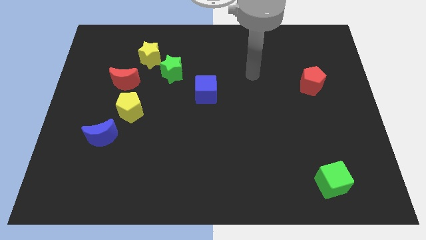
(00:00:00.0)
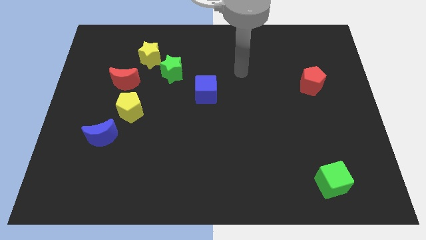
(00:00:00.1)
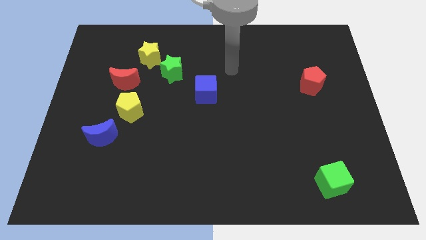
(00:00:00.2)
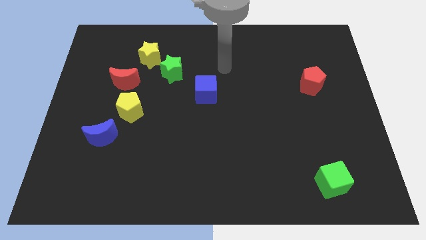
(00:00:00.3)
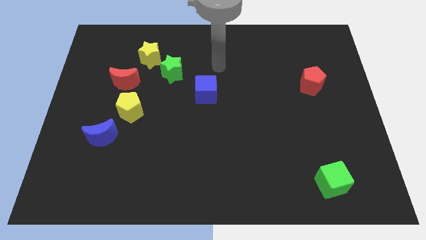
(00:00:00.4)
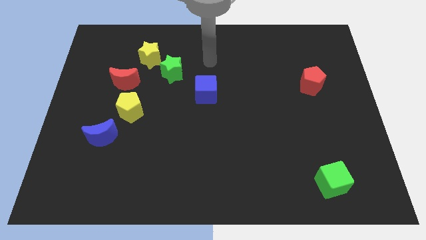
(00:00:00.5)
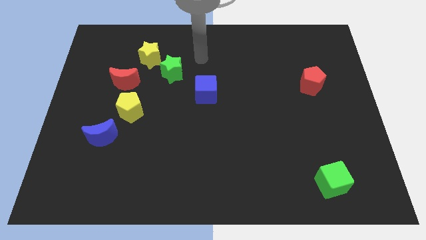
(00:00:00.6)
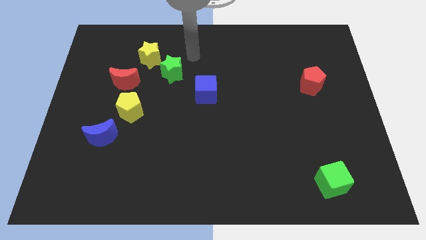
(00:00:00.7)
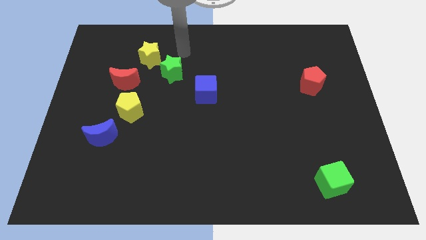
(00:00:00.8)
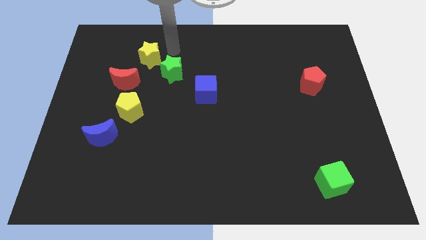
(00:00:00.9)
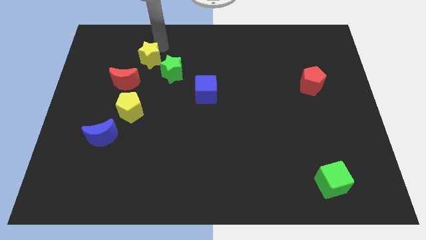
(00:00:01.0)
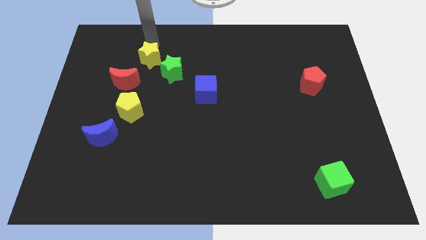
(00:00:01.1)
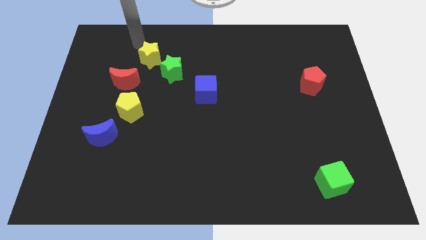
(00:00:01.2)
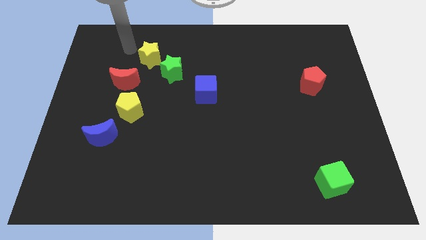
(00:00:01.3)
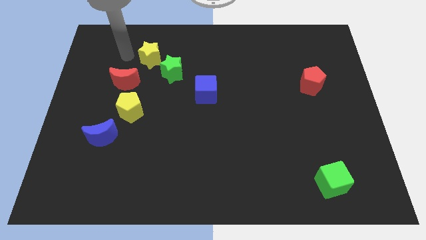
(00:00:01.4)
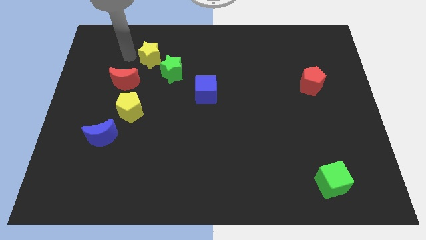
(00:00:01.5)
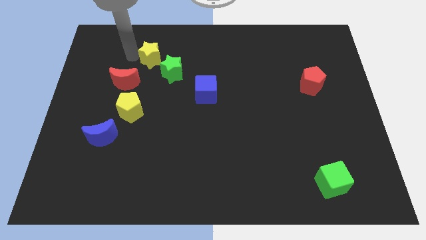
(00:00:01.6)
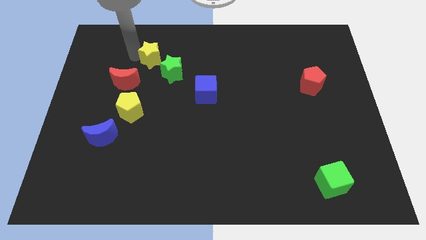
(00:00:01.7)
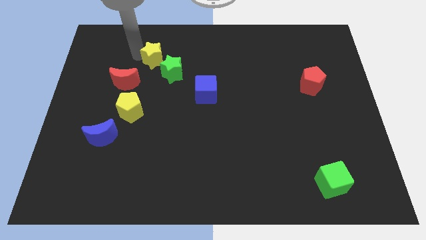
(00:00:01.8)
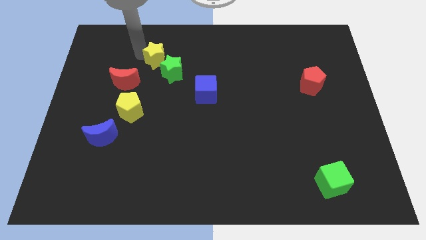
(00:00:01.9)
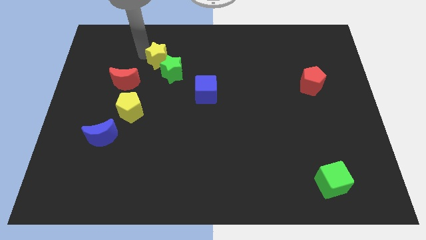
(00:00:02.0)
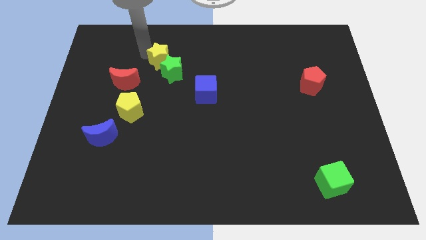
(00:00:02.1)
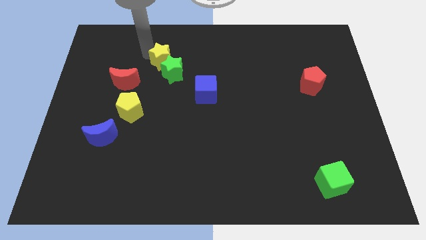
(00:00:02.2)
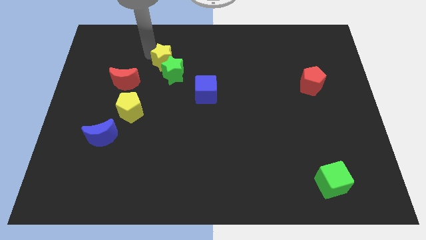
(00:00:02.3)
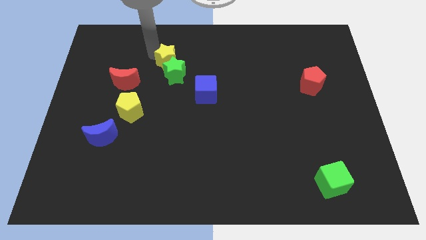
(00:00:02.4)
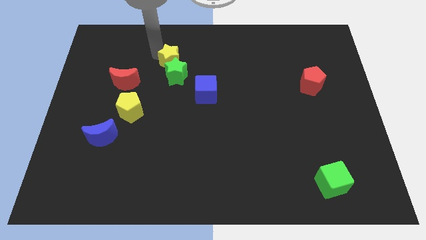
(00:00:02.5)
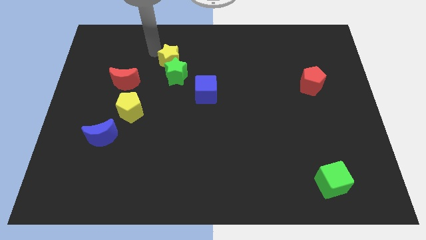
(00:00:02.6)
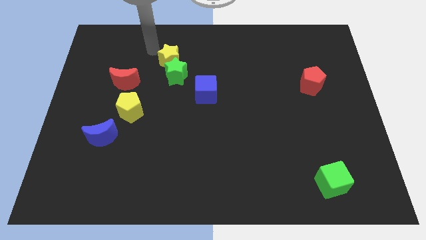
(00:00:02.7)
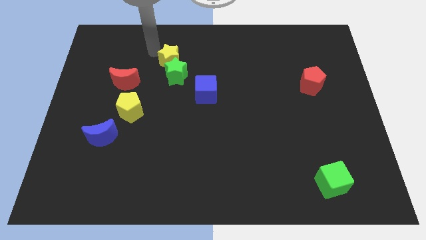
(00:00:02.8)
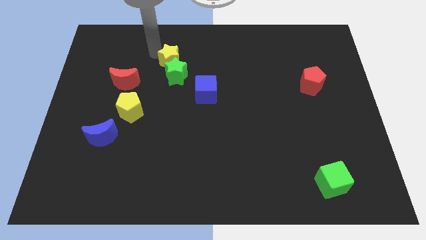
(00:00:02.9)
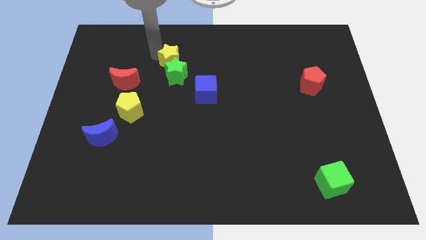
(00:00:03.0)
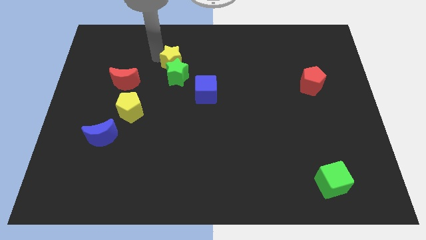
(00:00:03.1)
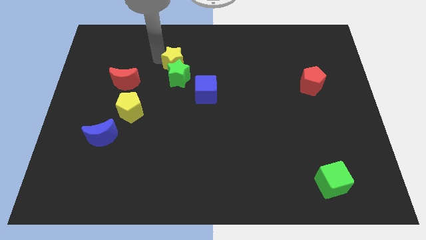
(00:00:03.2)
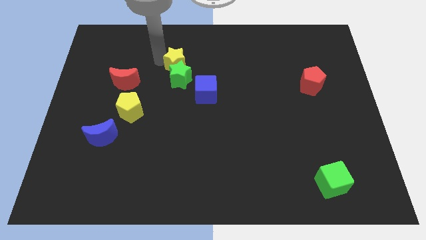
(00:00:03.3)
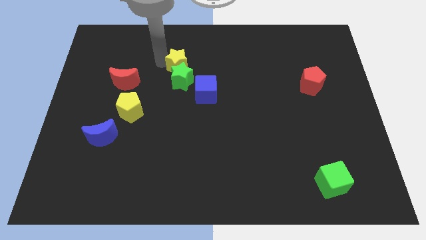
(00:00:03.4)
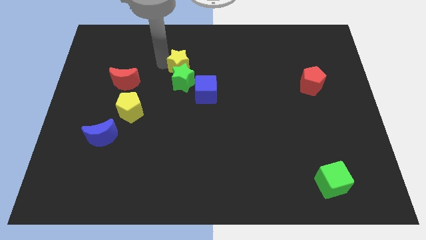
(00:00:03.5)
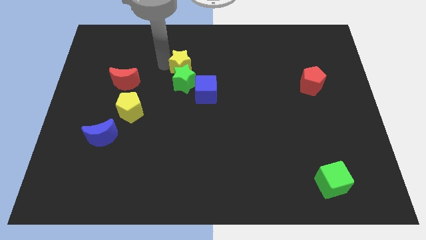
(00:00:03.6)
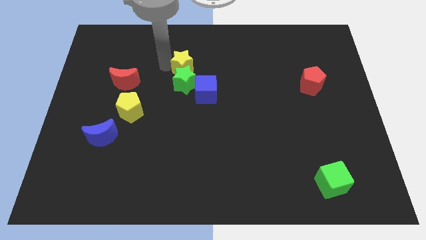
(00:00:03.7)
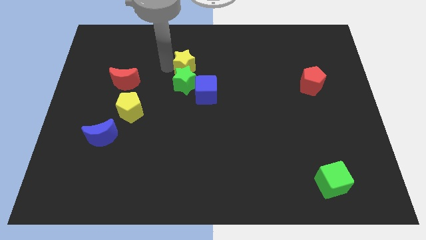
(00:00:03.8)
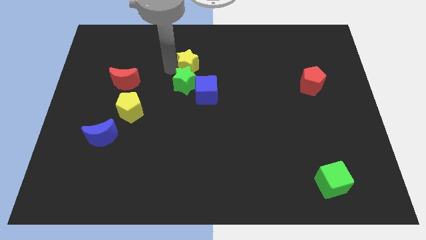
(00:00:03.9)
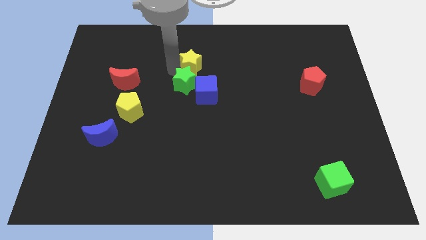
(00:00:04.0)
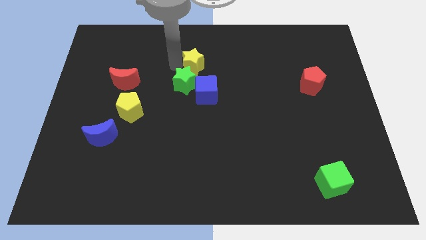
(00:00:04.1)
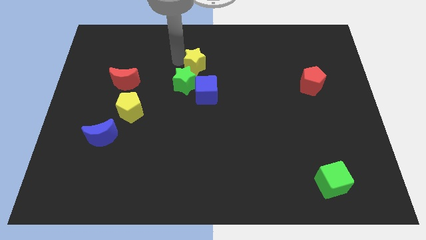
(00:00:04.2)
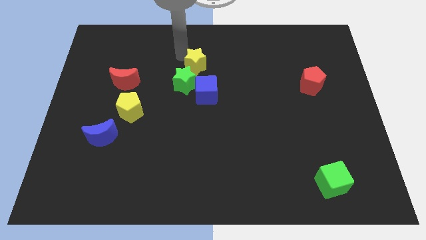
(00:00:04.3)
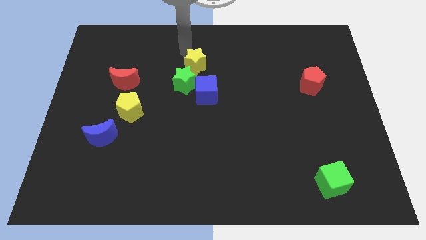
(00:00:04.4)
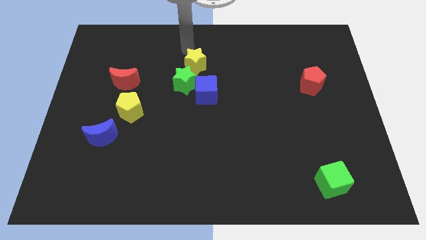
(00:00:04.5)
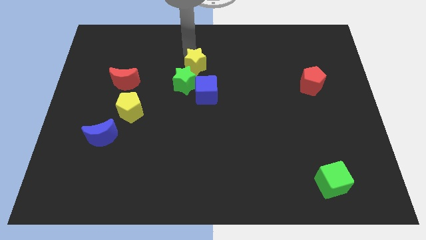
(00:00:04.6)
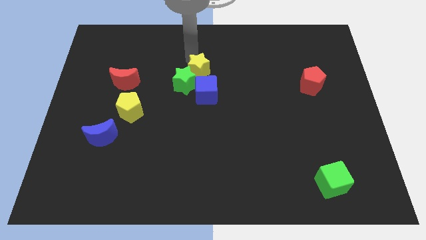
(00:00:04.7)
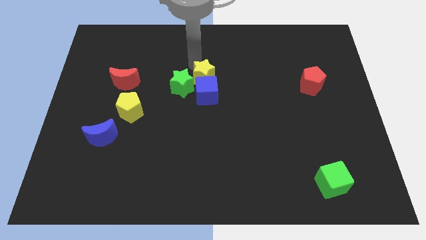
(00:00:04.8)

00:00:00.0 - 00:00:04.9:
push the yellow star next to the blue cube

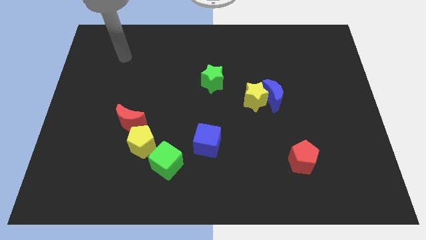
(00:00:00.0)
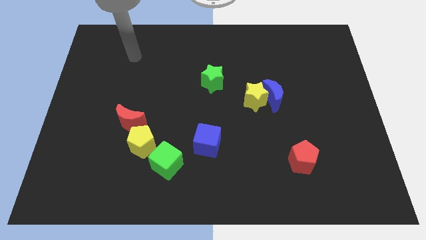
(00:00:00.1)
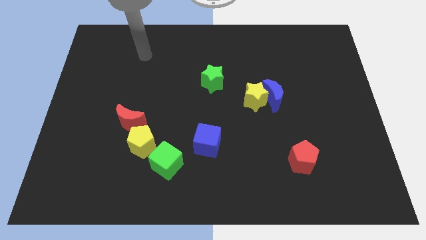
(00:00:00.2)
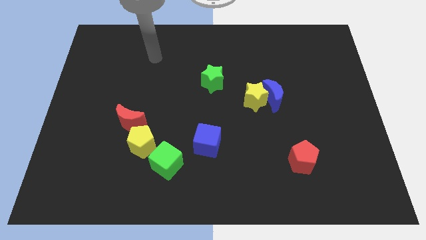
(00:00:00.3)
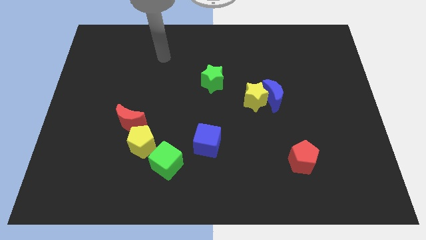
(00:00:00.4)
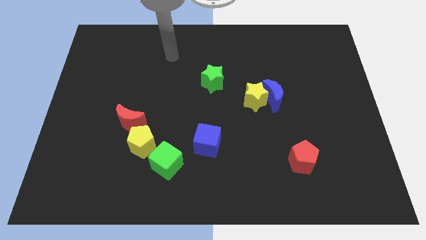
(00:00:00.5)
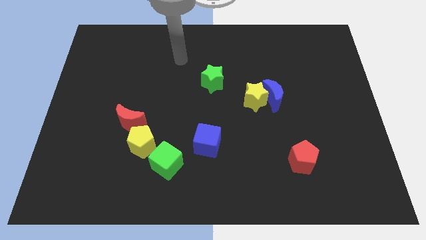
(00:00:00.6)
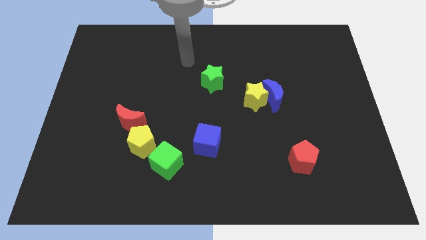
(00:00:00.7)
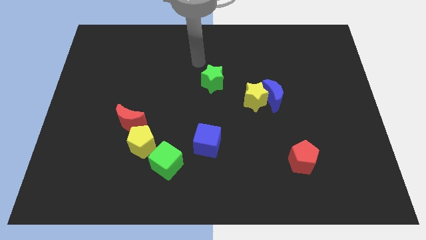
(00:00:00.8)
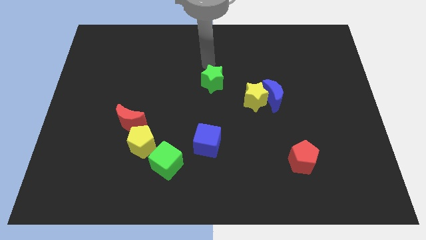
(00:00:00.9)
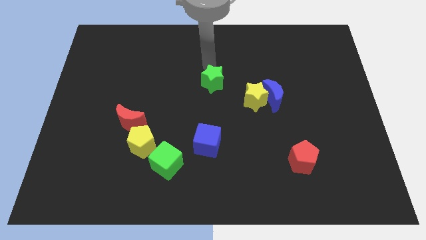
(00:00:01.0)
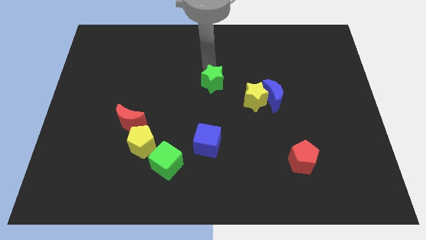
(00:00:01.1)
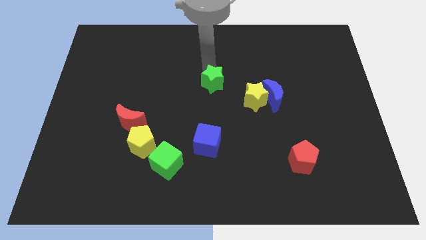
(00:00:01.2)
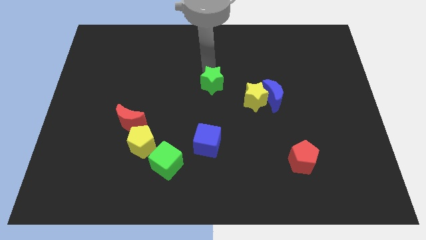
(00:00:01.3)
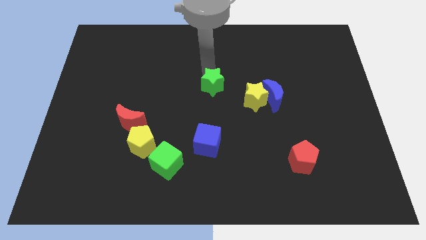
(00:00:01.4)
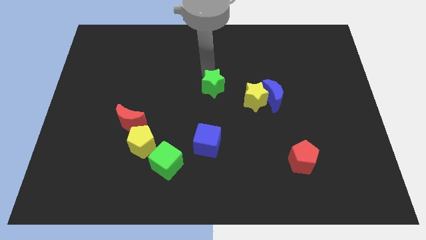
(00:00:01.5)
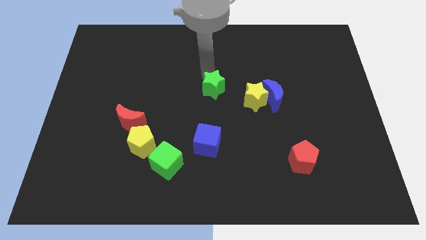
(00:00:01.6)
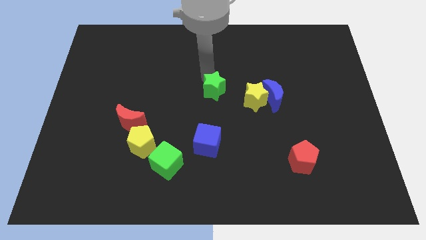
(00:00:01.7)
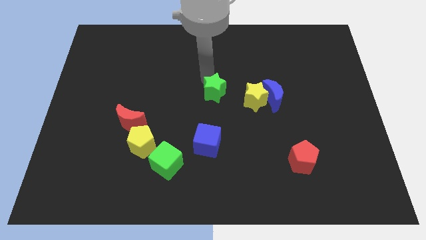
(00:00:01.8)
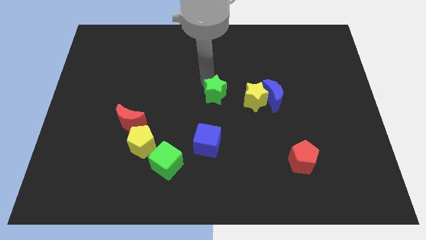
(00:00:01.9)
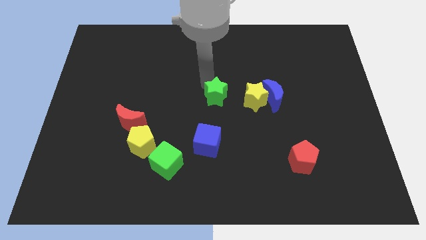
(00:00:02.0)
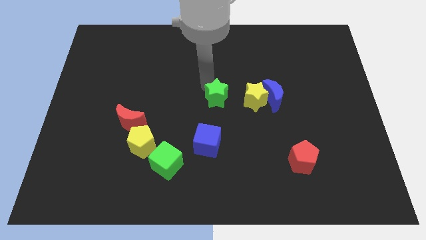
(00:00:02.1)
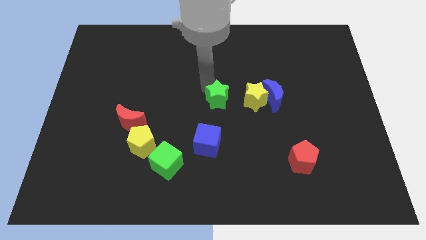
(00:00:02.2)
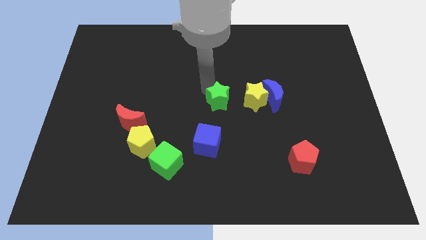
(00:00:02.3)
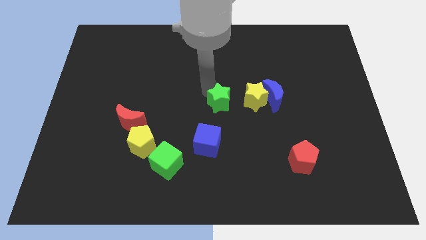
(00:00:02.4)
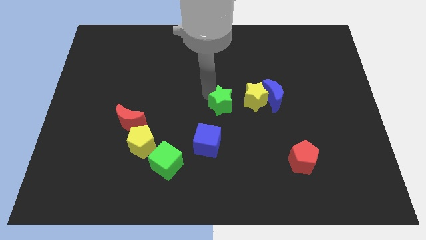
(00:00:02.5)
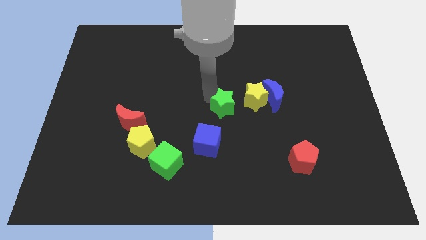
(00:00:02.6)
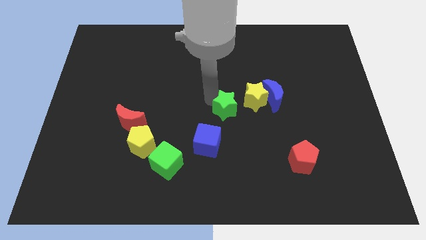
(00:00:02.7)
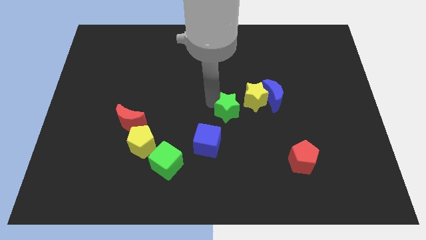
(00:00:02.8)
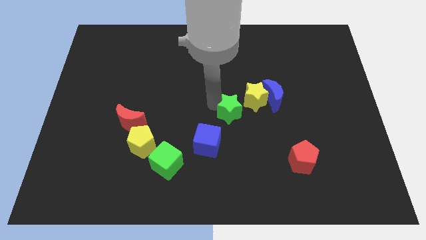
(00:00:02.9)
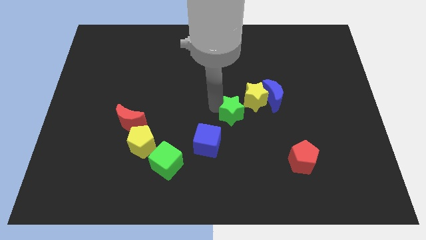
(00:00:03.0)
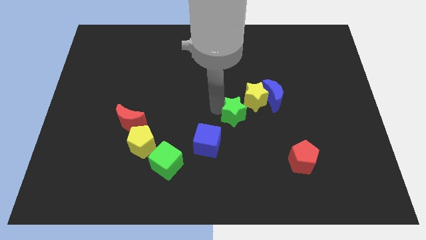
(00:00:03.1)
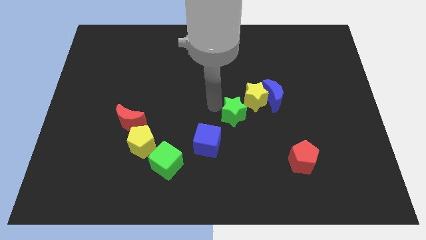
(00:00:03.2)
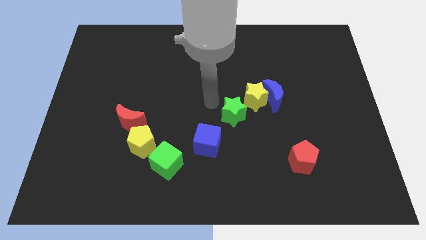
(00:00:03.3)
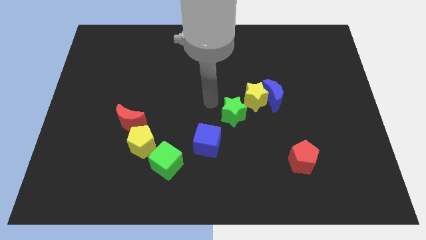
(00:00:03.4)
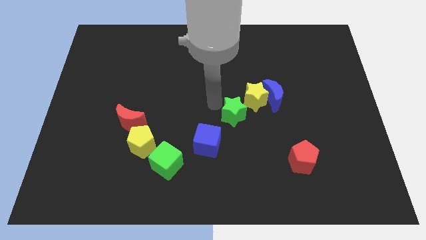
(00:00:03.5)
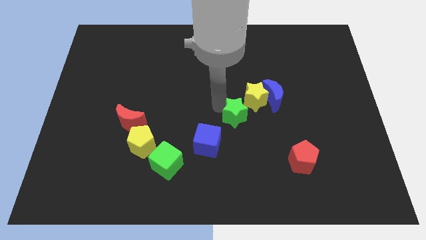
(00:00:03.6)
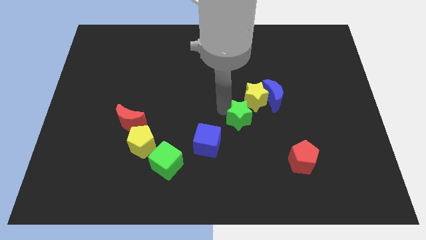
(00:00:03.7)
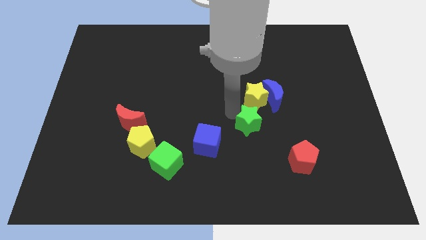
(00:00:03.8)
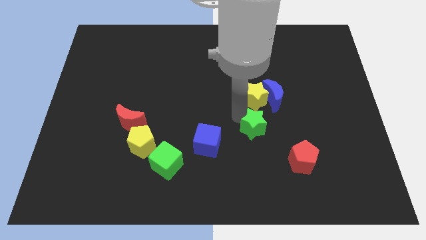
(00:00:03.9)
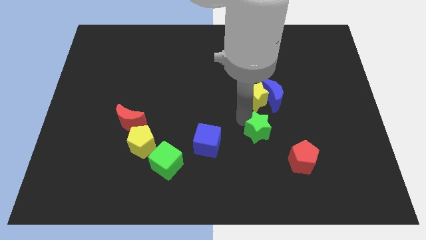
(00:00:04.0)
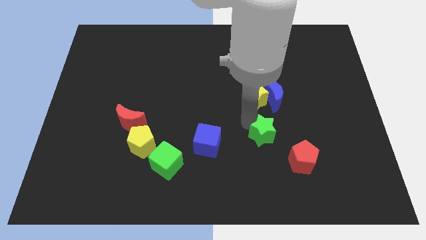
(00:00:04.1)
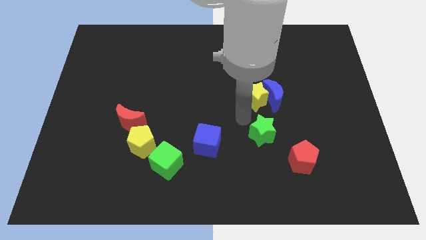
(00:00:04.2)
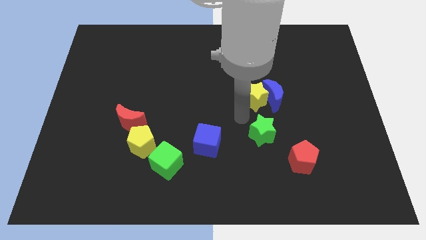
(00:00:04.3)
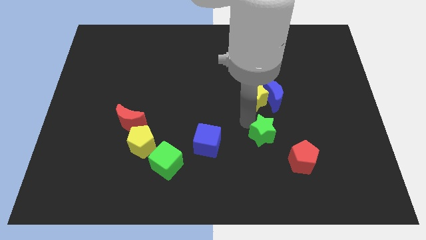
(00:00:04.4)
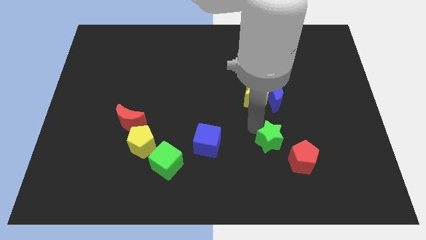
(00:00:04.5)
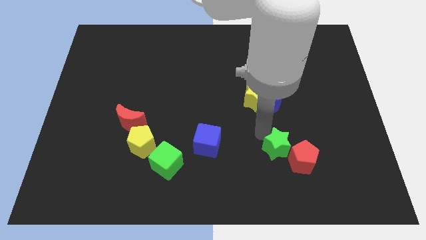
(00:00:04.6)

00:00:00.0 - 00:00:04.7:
slide the green star close to the red pentagon
